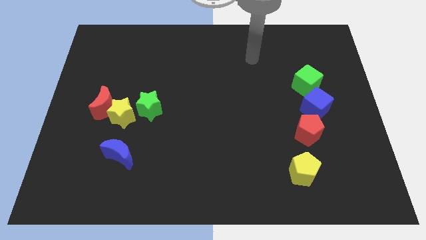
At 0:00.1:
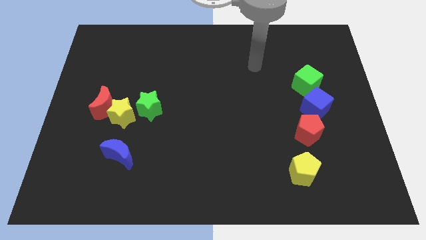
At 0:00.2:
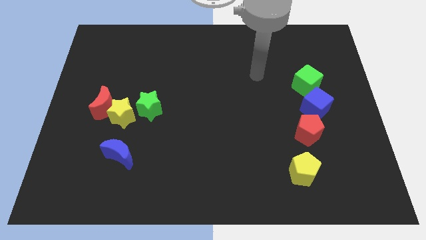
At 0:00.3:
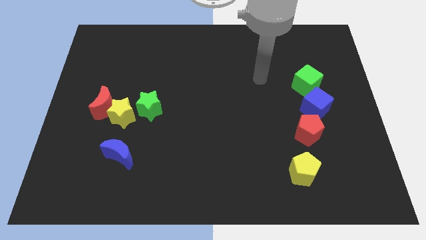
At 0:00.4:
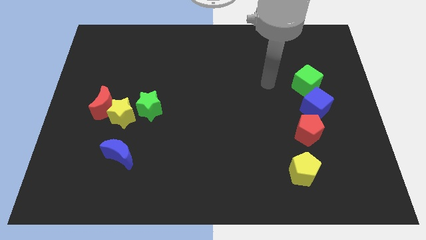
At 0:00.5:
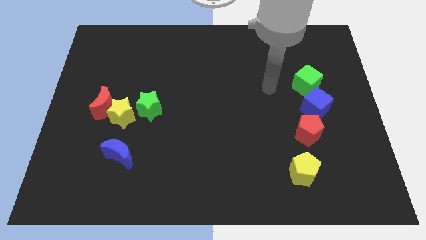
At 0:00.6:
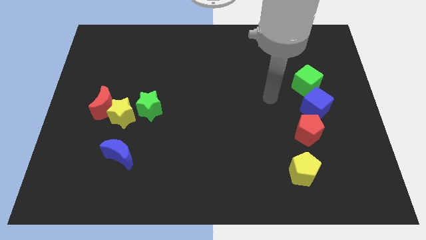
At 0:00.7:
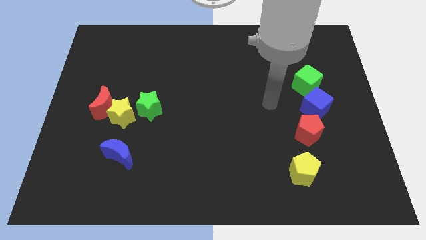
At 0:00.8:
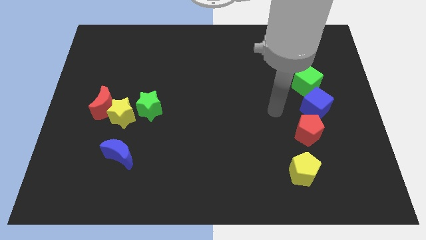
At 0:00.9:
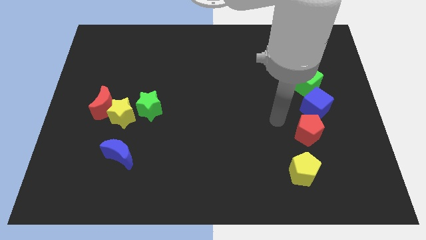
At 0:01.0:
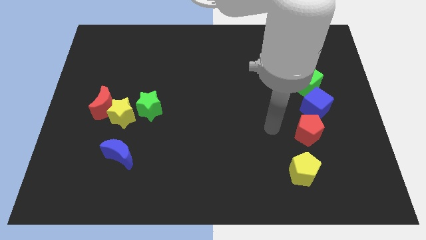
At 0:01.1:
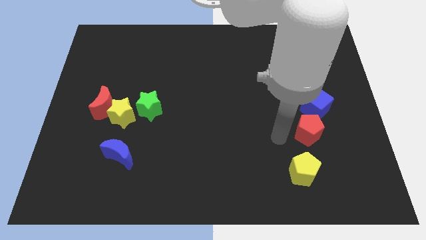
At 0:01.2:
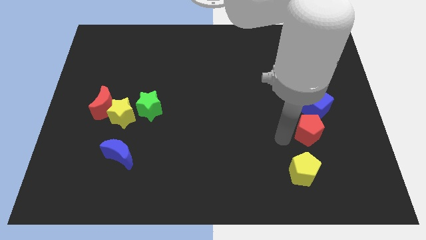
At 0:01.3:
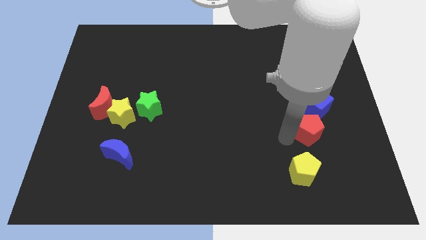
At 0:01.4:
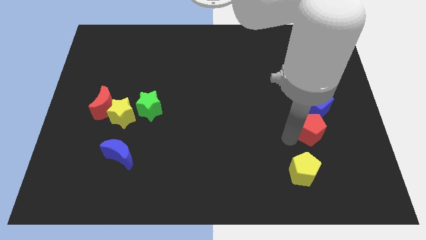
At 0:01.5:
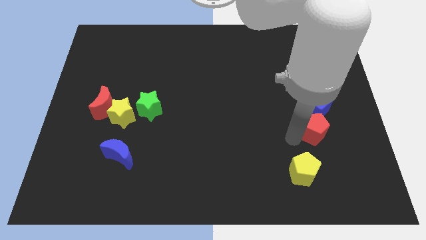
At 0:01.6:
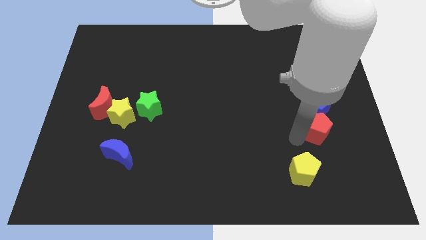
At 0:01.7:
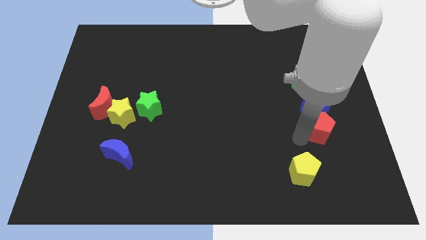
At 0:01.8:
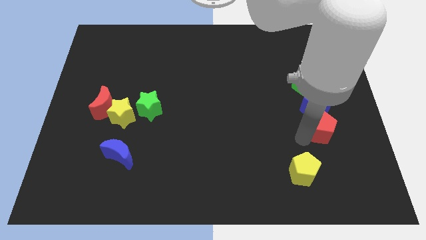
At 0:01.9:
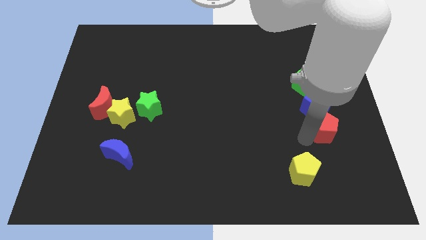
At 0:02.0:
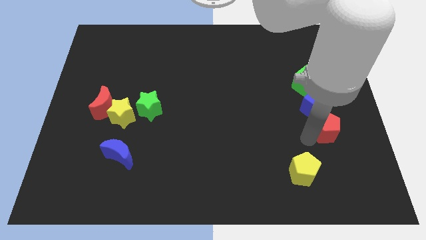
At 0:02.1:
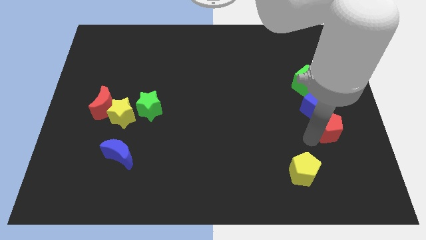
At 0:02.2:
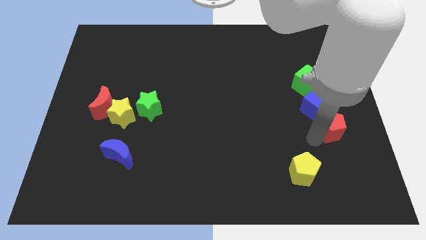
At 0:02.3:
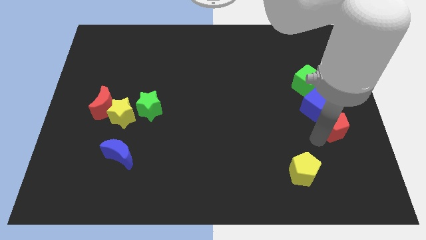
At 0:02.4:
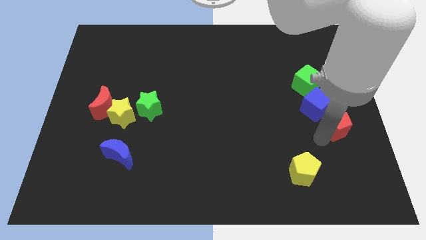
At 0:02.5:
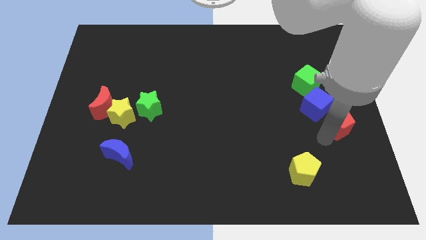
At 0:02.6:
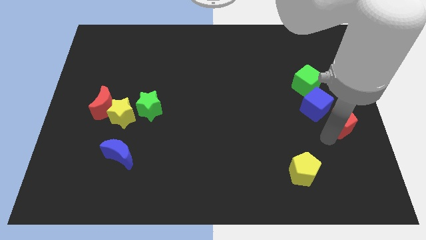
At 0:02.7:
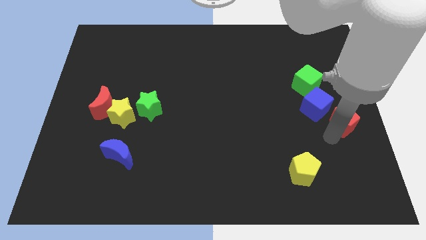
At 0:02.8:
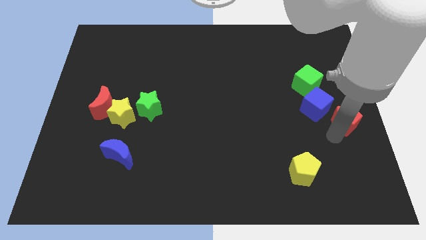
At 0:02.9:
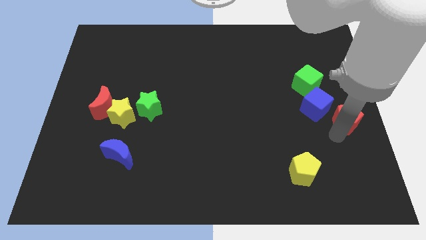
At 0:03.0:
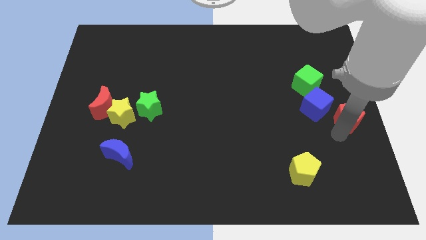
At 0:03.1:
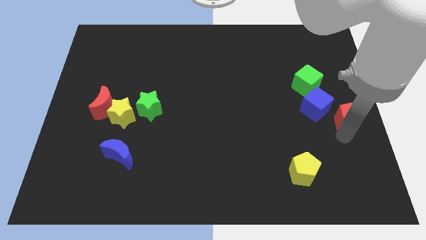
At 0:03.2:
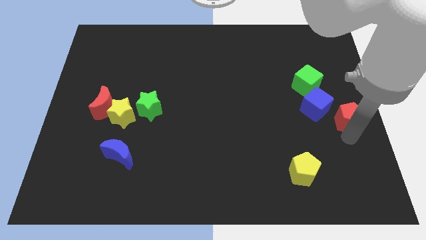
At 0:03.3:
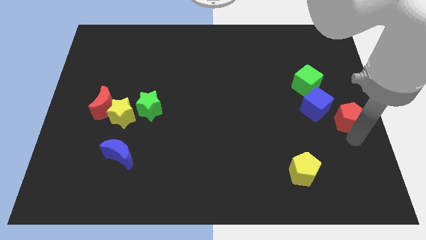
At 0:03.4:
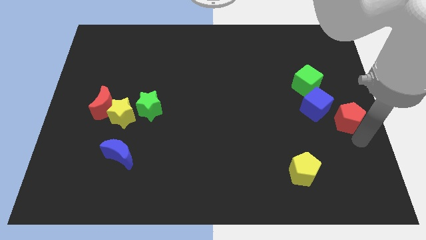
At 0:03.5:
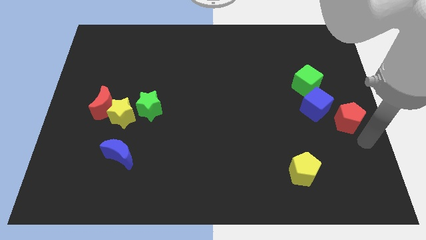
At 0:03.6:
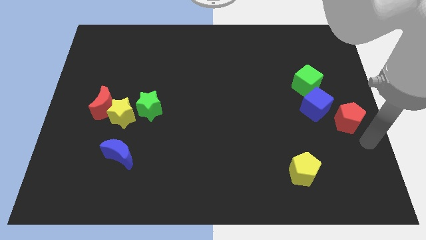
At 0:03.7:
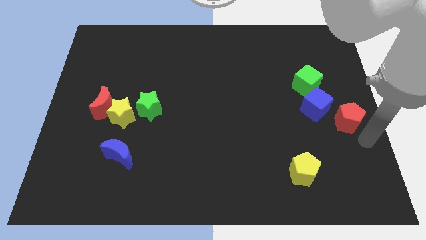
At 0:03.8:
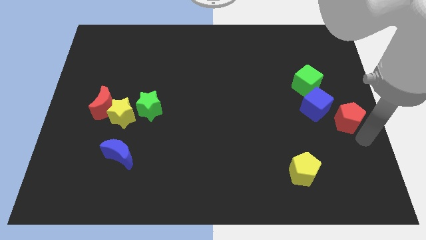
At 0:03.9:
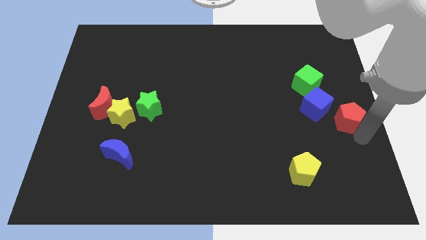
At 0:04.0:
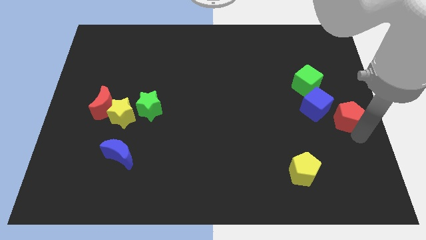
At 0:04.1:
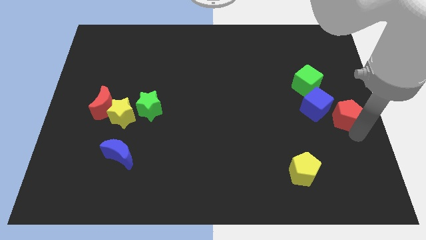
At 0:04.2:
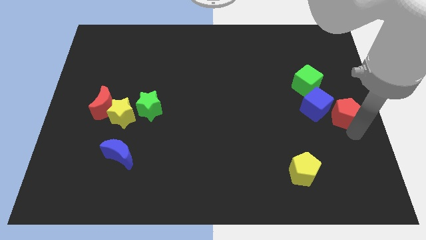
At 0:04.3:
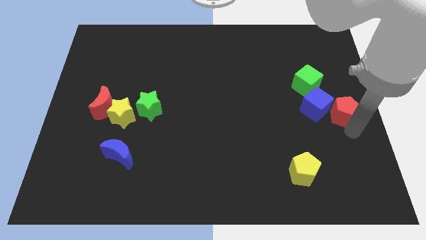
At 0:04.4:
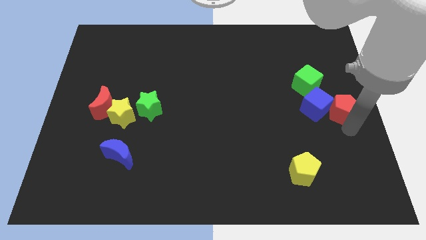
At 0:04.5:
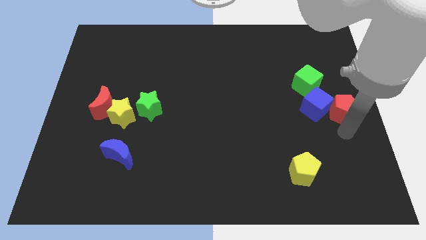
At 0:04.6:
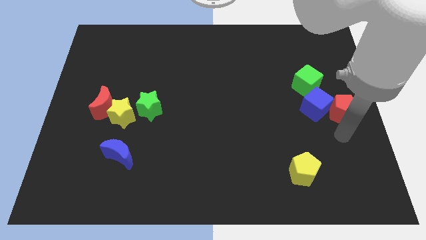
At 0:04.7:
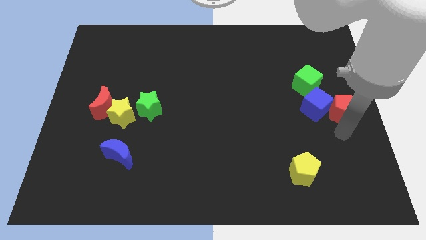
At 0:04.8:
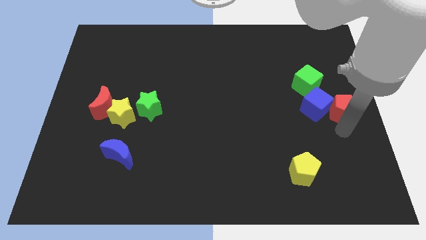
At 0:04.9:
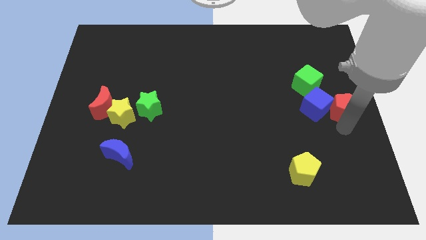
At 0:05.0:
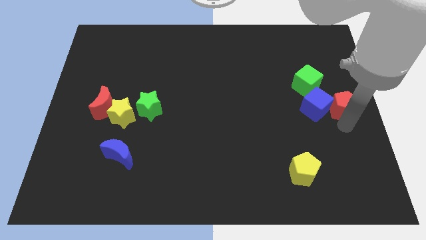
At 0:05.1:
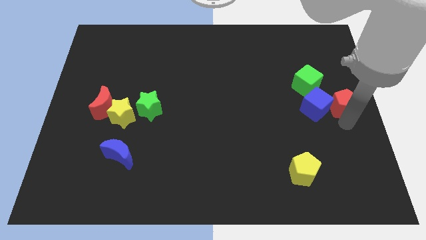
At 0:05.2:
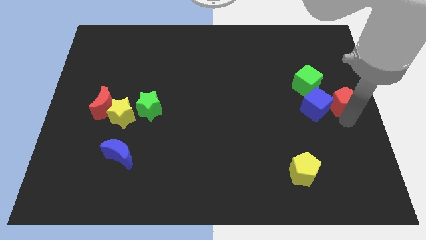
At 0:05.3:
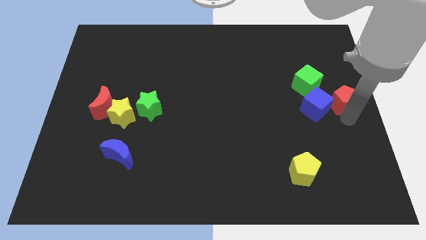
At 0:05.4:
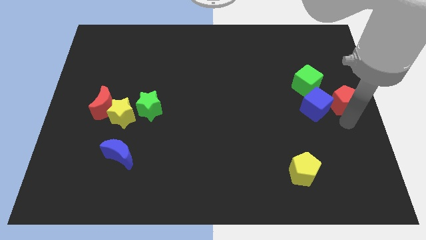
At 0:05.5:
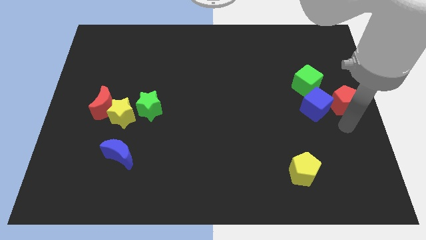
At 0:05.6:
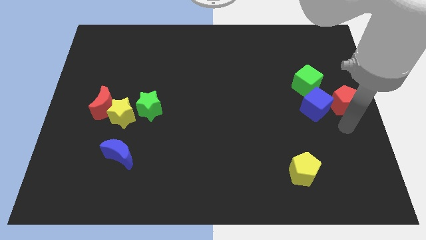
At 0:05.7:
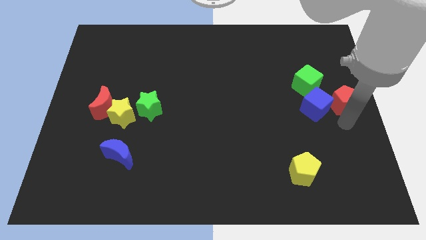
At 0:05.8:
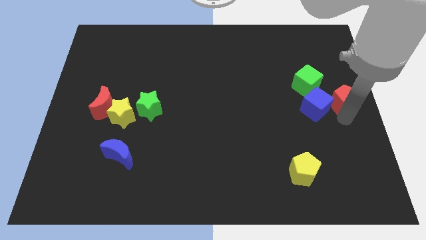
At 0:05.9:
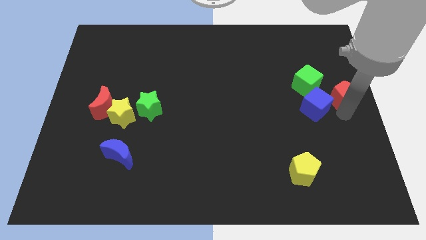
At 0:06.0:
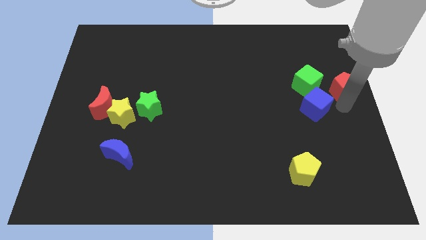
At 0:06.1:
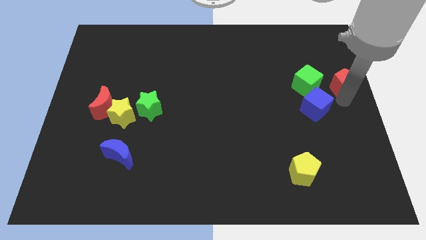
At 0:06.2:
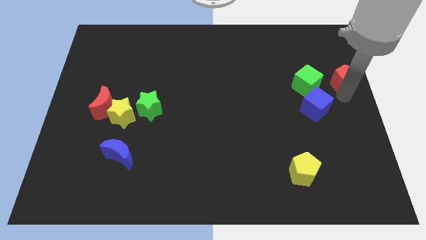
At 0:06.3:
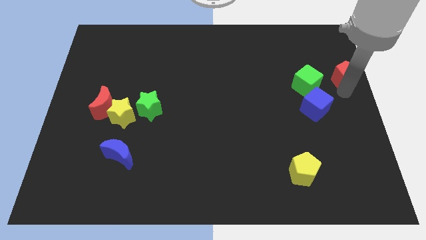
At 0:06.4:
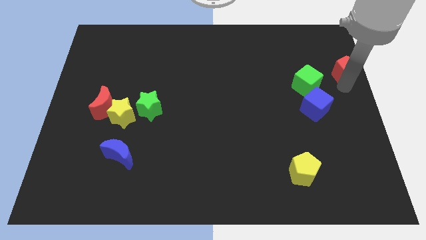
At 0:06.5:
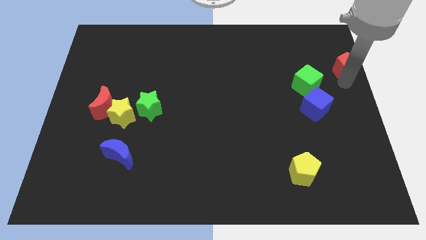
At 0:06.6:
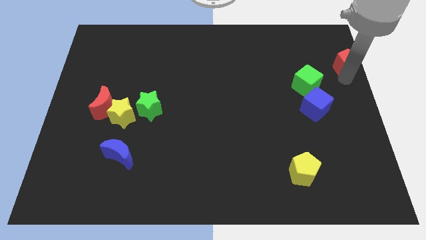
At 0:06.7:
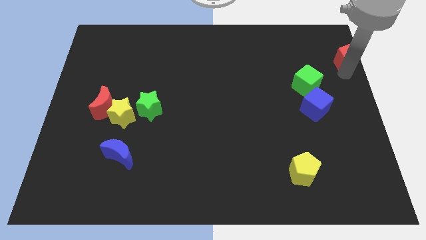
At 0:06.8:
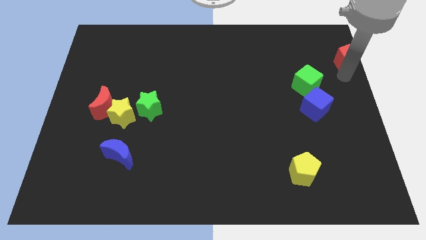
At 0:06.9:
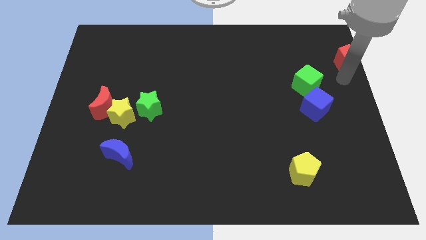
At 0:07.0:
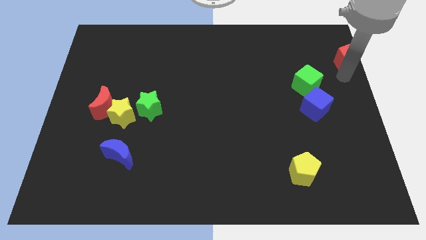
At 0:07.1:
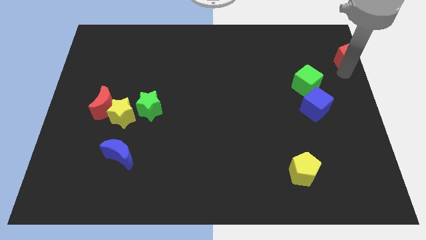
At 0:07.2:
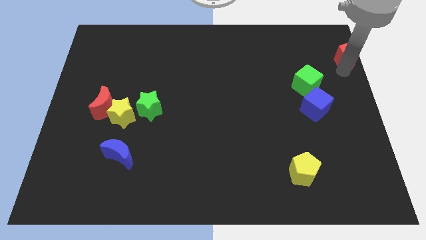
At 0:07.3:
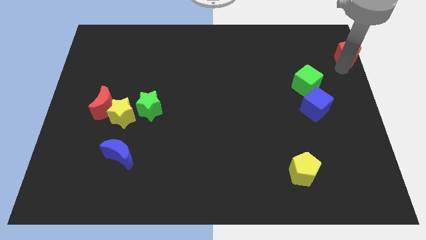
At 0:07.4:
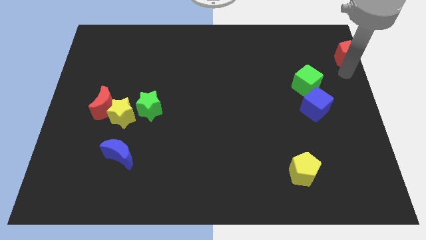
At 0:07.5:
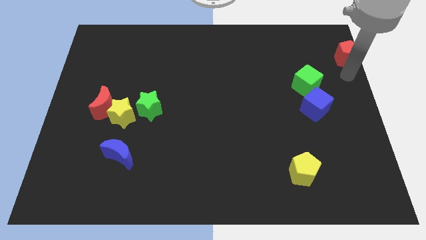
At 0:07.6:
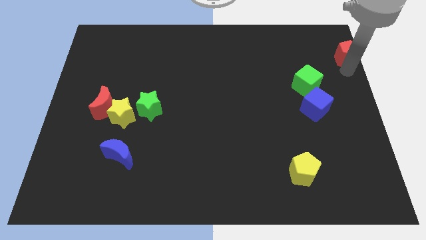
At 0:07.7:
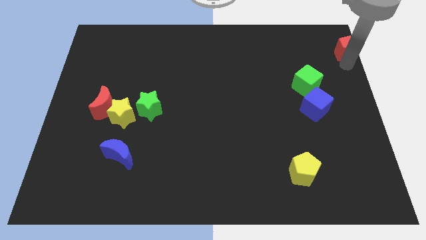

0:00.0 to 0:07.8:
move the red pentagon to the top right
